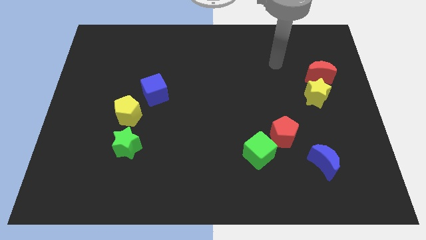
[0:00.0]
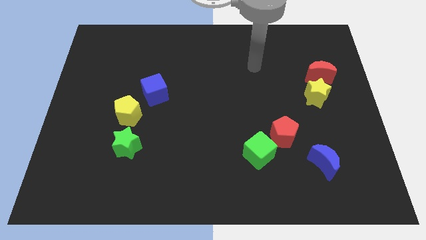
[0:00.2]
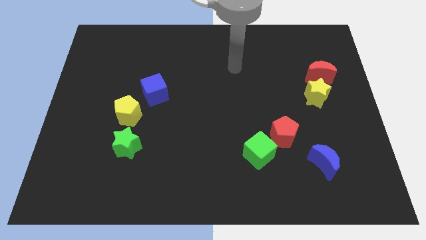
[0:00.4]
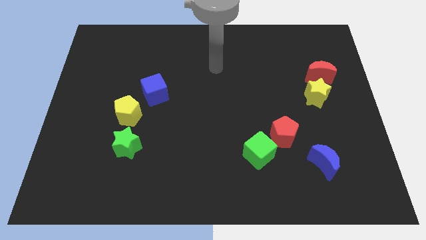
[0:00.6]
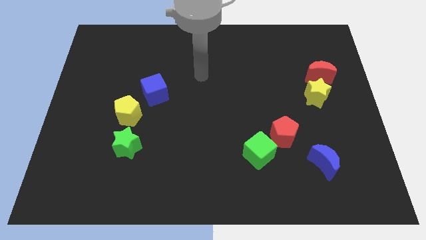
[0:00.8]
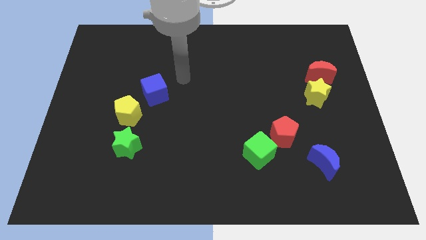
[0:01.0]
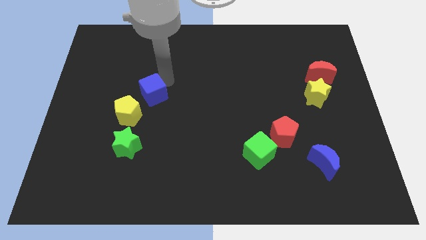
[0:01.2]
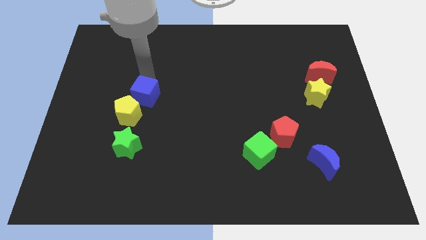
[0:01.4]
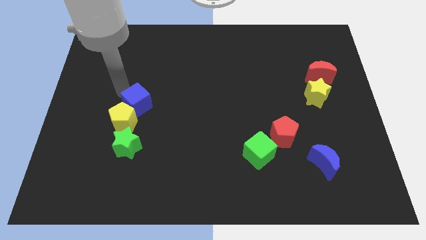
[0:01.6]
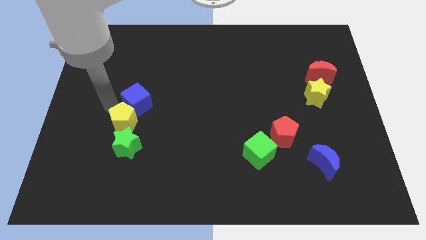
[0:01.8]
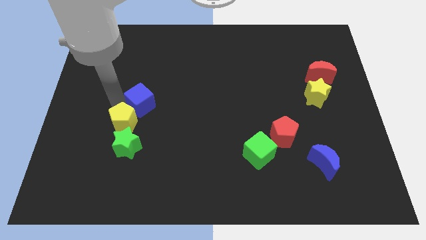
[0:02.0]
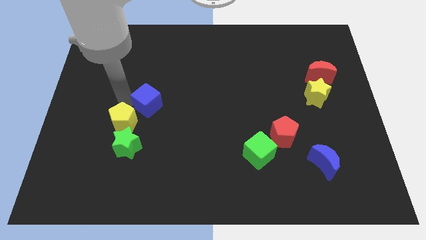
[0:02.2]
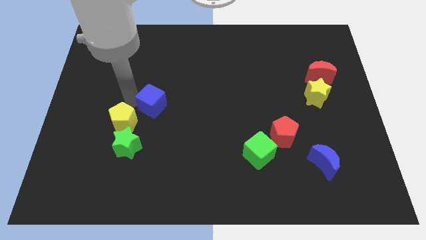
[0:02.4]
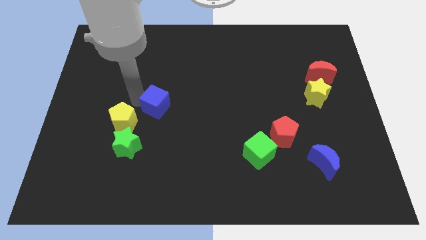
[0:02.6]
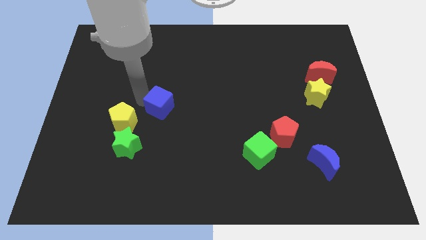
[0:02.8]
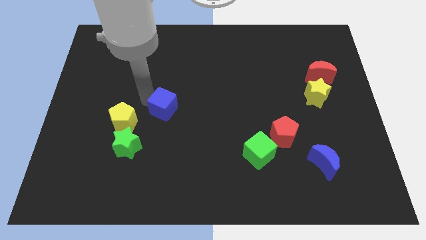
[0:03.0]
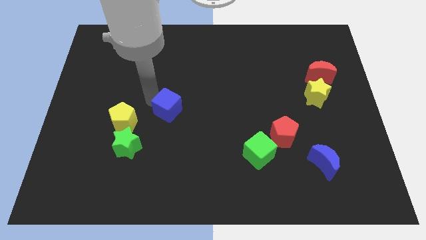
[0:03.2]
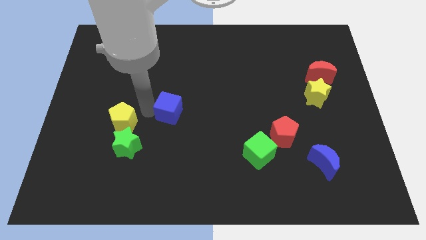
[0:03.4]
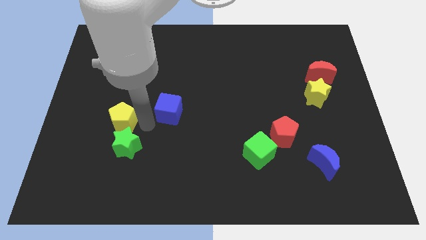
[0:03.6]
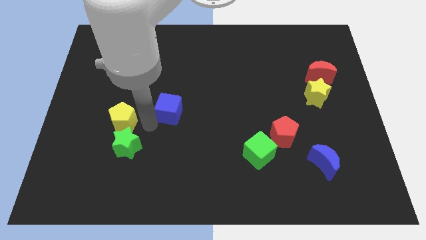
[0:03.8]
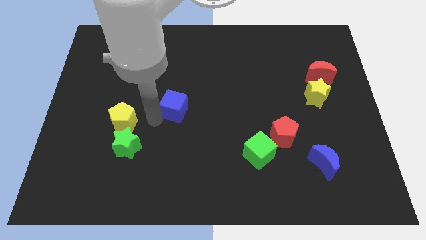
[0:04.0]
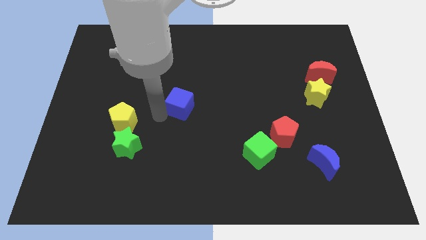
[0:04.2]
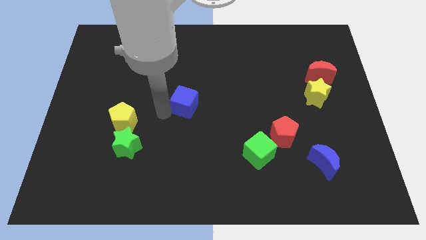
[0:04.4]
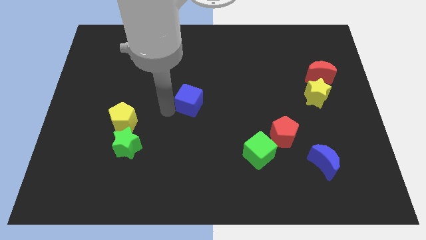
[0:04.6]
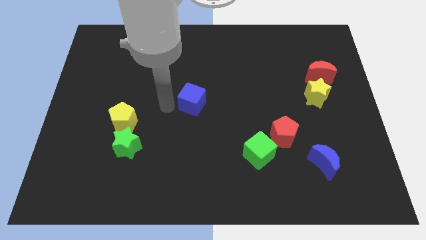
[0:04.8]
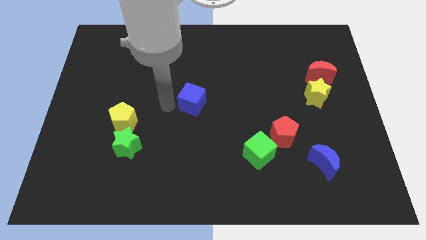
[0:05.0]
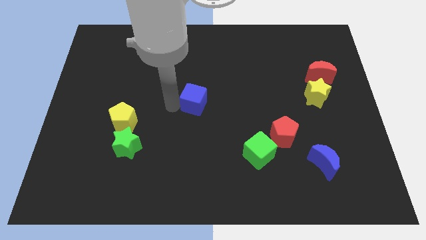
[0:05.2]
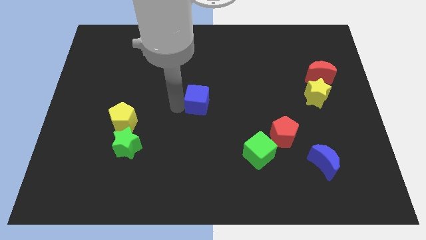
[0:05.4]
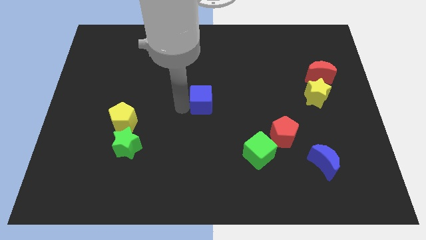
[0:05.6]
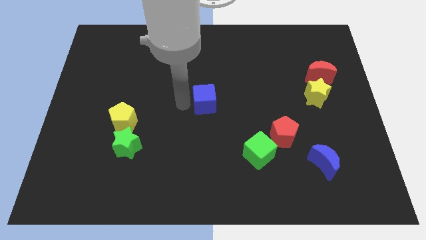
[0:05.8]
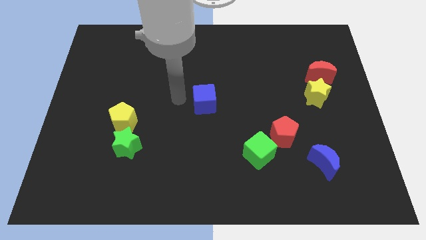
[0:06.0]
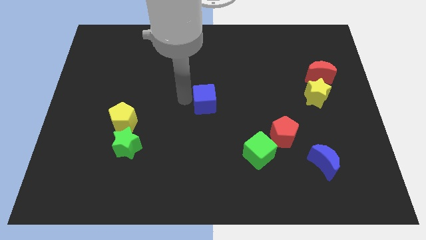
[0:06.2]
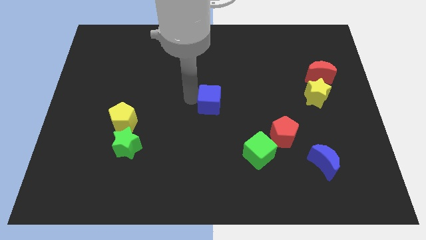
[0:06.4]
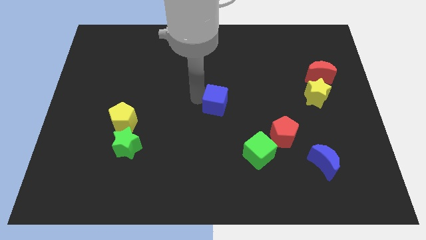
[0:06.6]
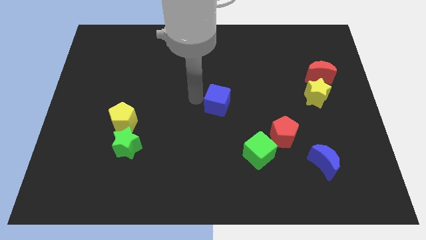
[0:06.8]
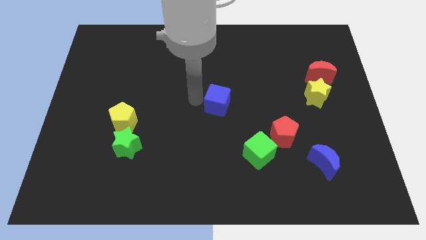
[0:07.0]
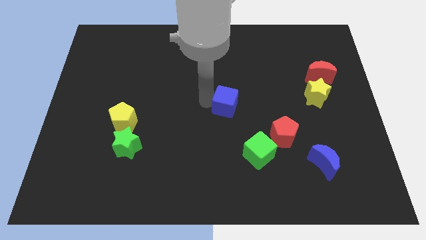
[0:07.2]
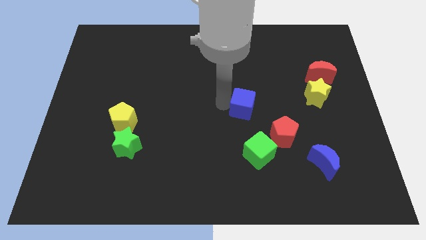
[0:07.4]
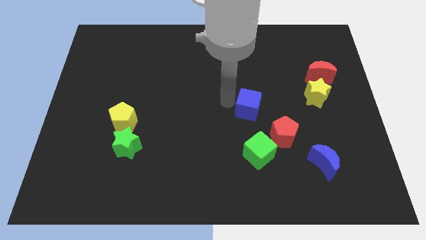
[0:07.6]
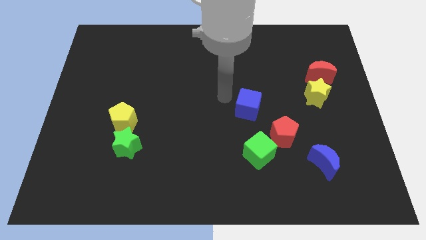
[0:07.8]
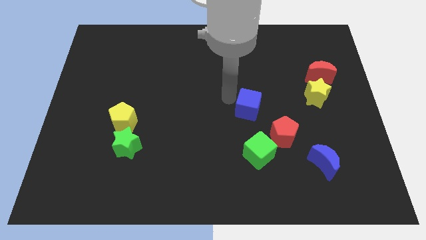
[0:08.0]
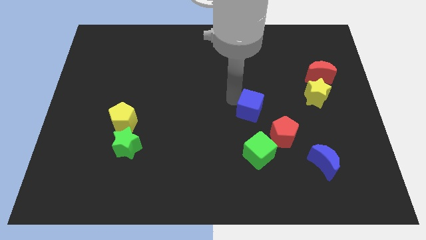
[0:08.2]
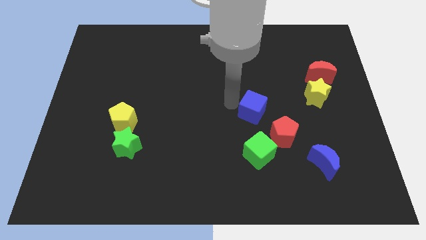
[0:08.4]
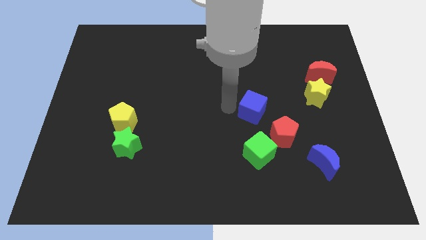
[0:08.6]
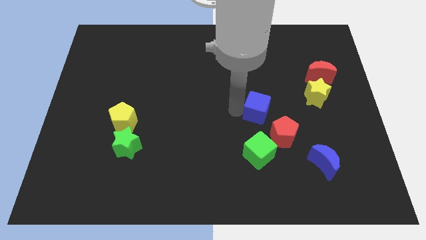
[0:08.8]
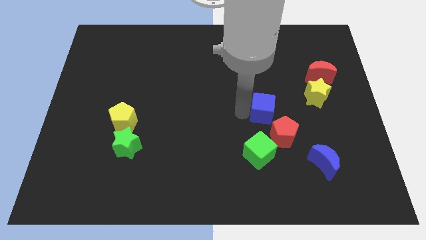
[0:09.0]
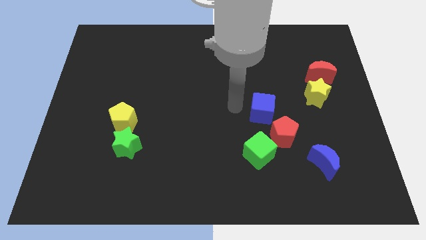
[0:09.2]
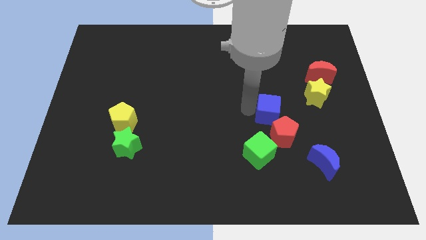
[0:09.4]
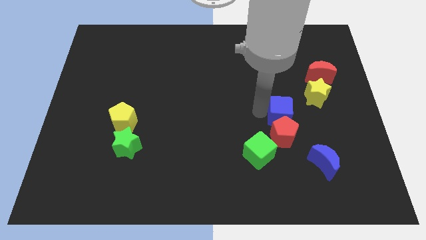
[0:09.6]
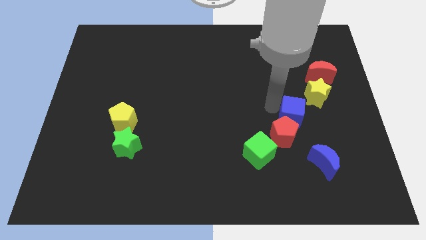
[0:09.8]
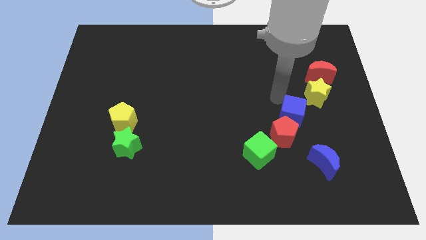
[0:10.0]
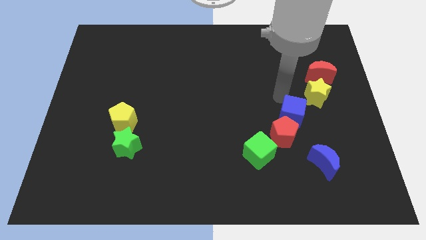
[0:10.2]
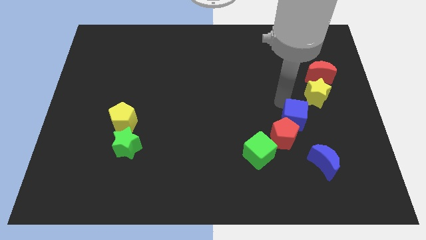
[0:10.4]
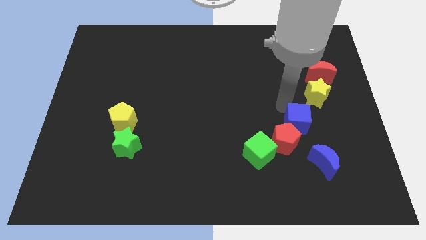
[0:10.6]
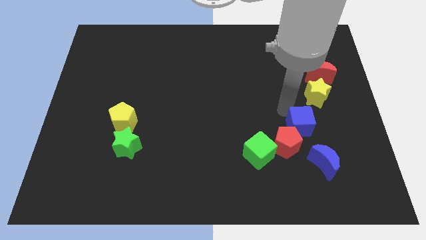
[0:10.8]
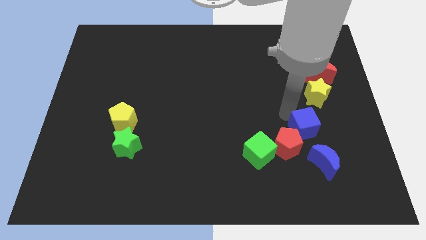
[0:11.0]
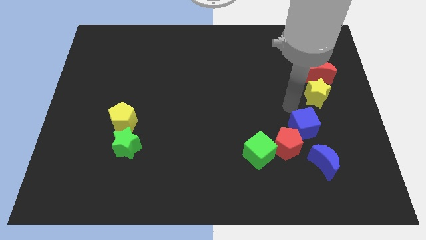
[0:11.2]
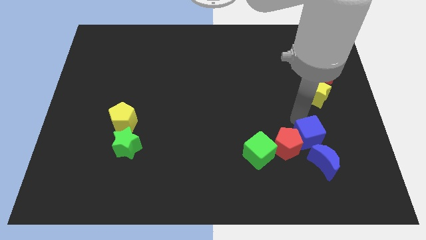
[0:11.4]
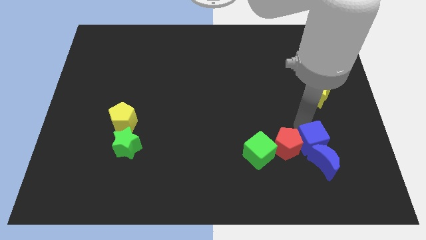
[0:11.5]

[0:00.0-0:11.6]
slide the blue cube close to the blue moon

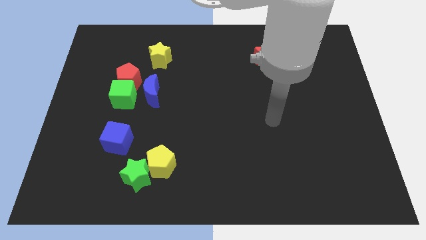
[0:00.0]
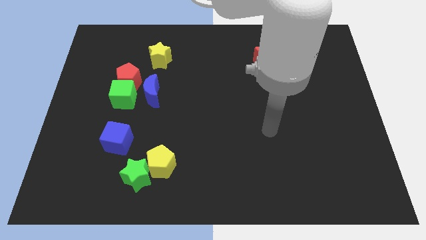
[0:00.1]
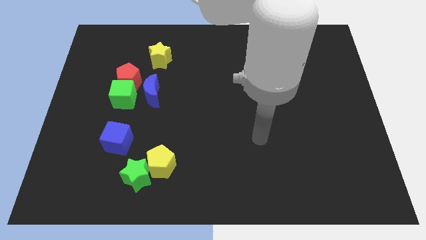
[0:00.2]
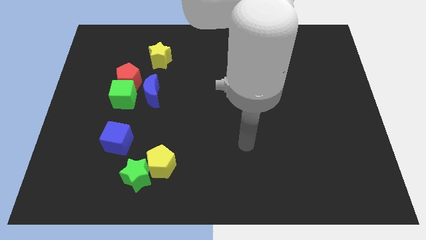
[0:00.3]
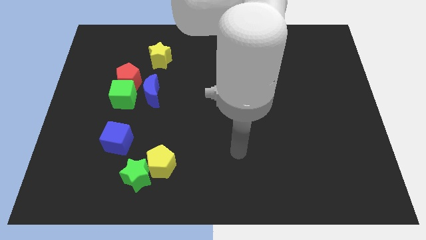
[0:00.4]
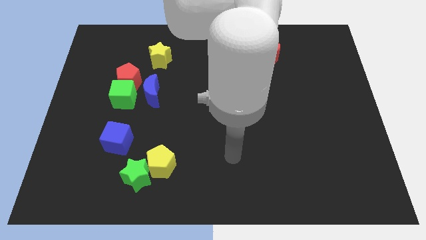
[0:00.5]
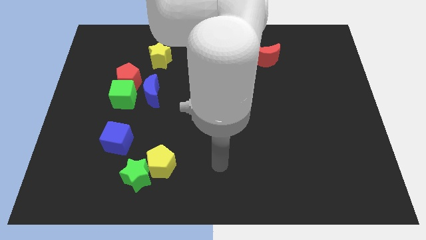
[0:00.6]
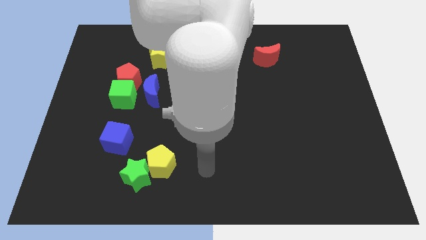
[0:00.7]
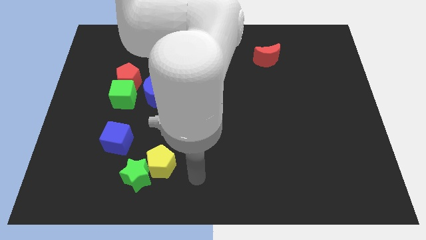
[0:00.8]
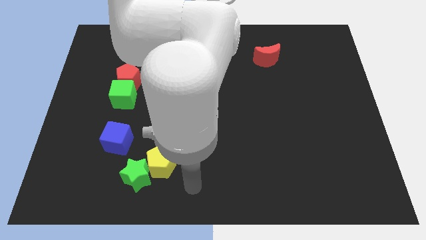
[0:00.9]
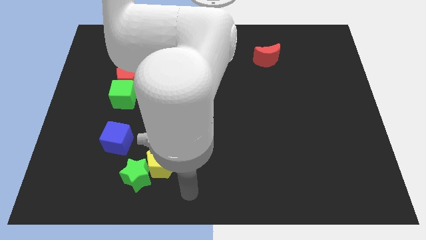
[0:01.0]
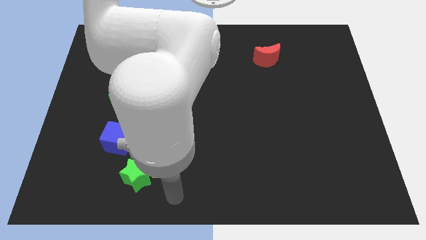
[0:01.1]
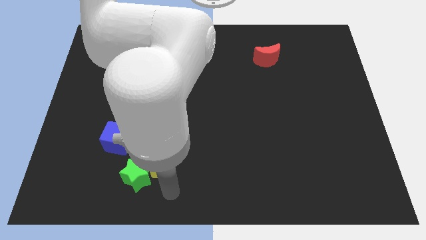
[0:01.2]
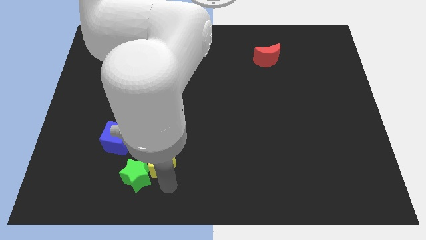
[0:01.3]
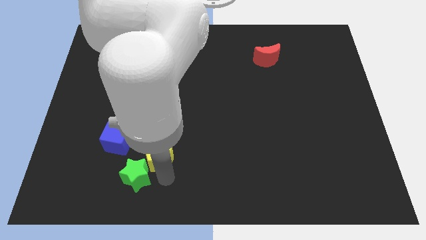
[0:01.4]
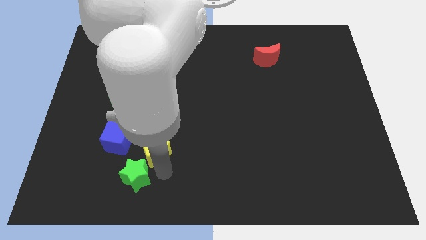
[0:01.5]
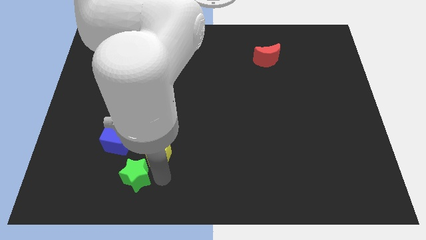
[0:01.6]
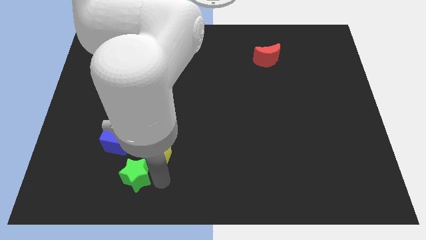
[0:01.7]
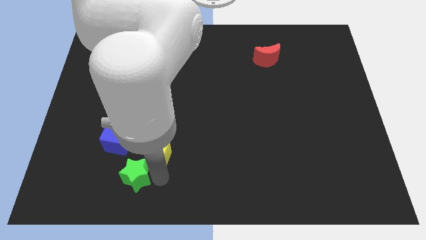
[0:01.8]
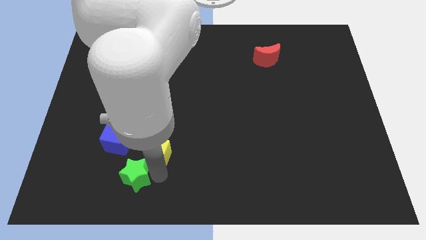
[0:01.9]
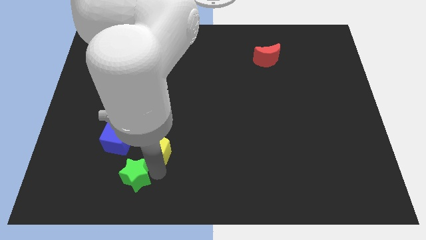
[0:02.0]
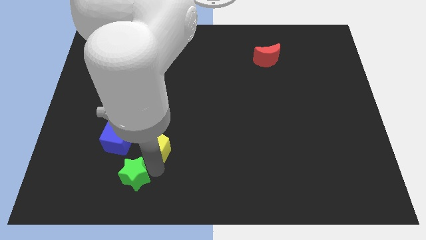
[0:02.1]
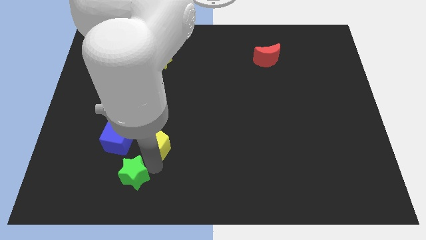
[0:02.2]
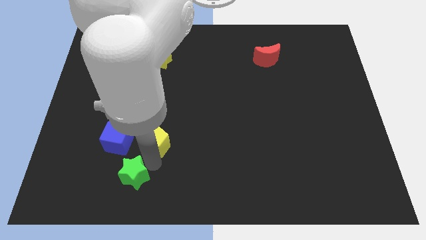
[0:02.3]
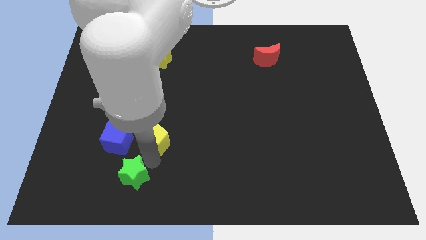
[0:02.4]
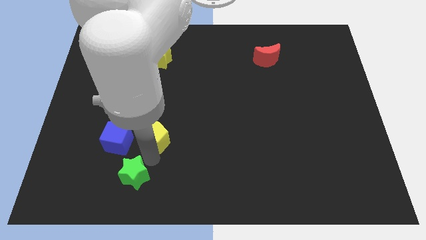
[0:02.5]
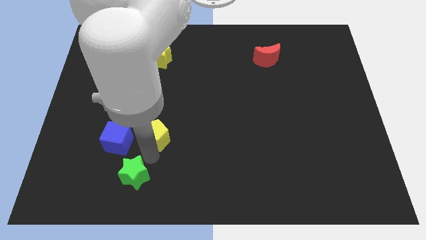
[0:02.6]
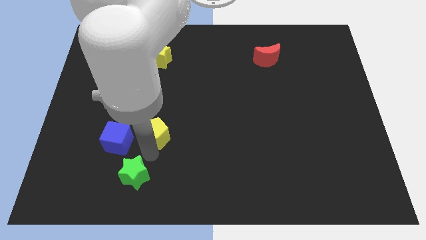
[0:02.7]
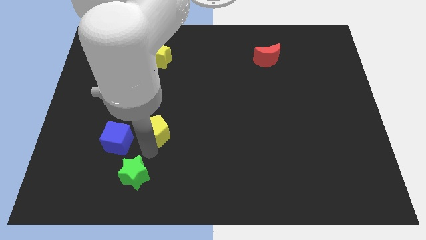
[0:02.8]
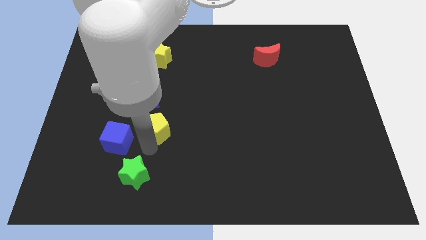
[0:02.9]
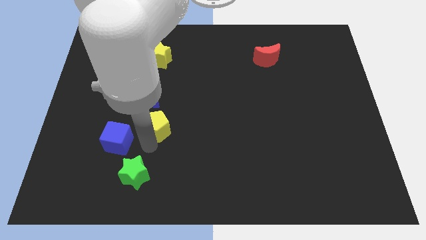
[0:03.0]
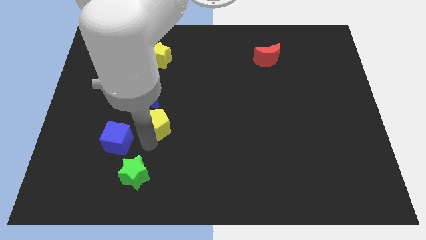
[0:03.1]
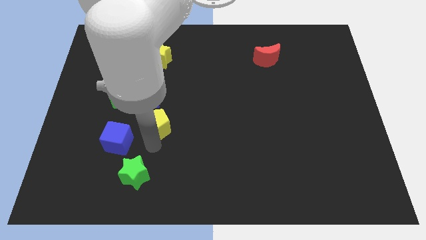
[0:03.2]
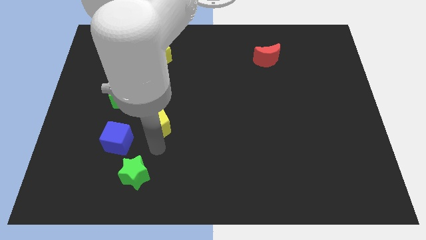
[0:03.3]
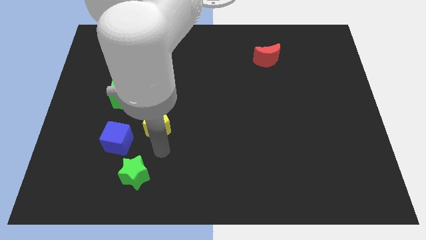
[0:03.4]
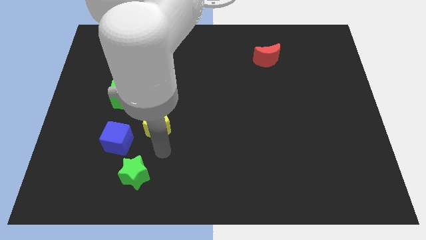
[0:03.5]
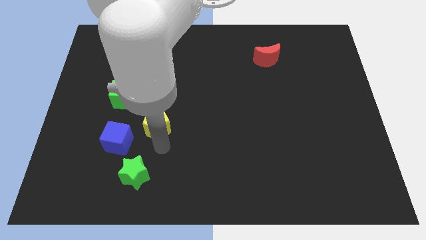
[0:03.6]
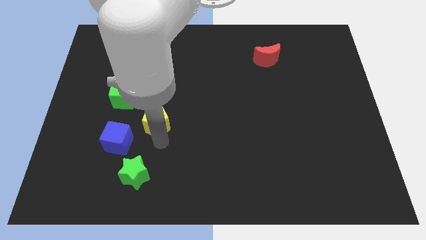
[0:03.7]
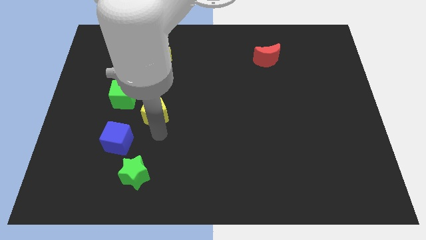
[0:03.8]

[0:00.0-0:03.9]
slide the yellow pentagon close to the blue moon
